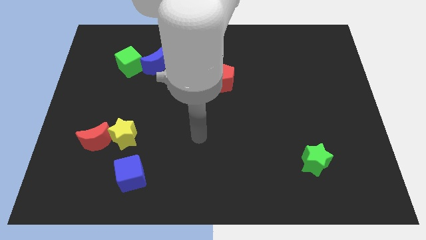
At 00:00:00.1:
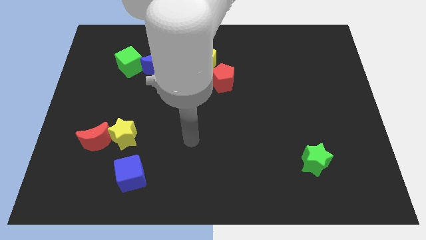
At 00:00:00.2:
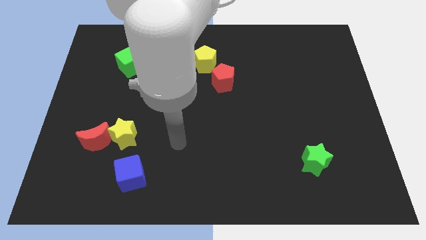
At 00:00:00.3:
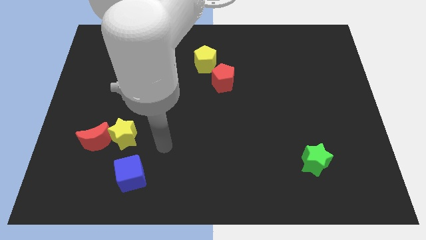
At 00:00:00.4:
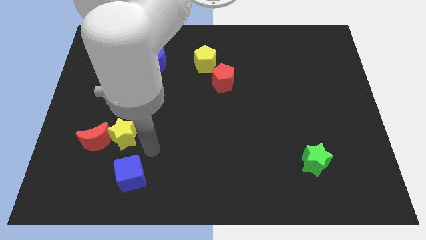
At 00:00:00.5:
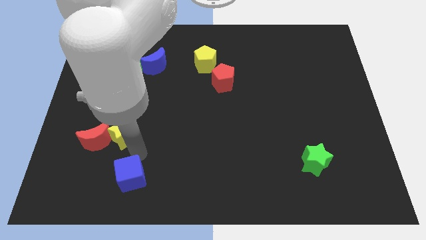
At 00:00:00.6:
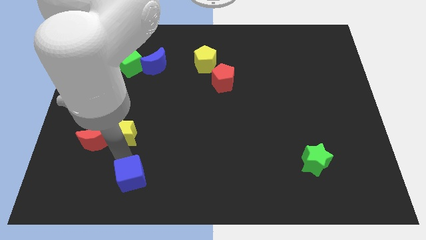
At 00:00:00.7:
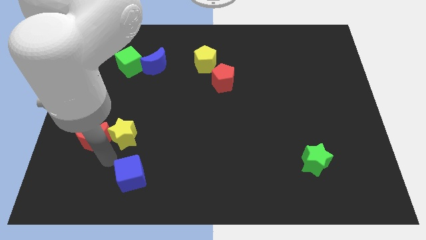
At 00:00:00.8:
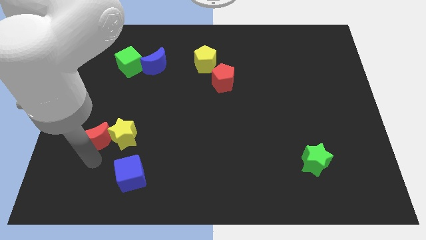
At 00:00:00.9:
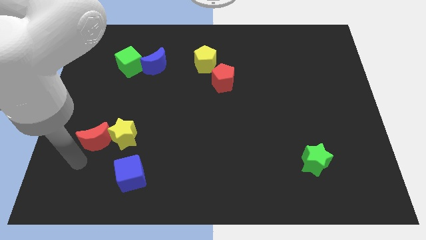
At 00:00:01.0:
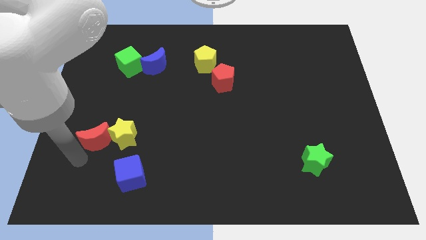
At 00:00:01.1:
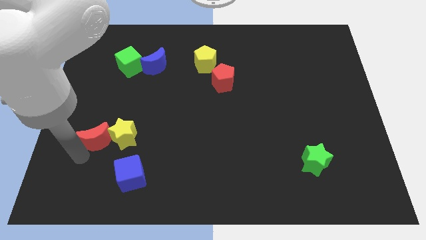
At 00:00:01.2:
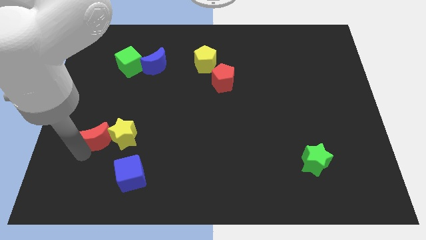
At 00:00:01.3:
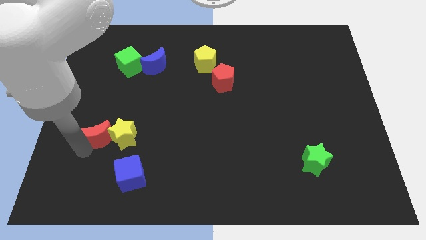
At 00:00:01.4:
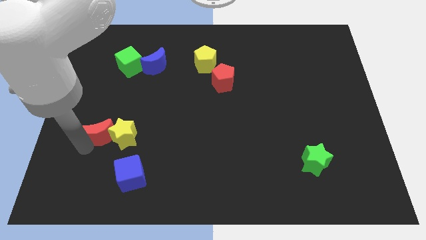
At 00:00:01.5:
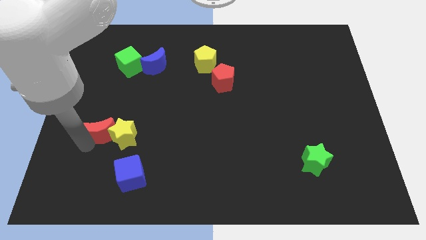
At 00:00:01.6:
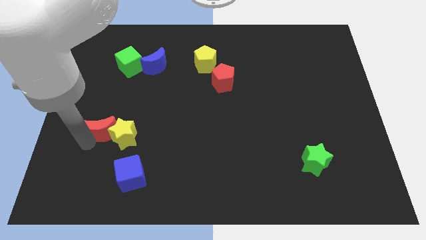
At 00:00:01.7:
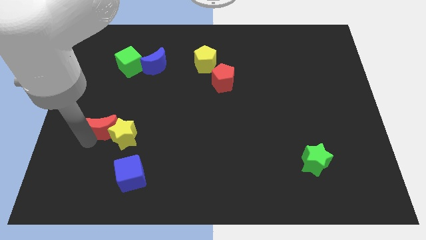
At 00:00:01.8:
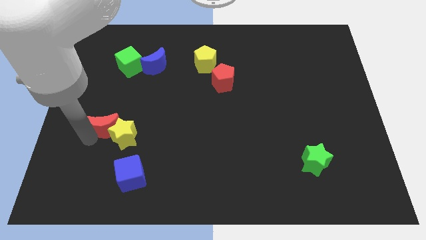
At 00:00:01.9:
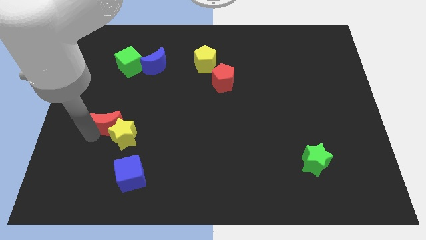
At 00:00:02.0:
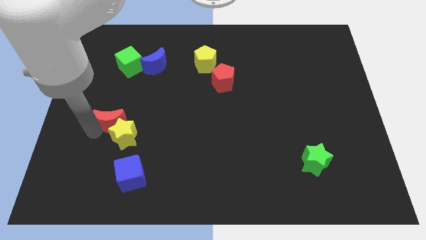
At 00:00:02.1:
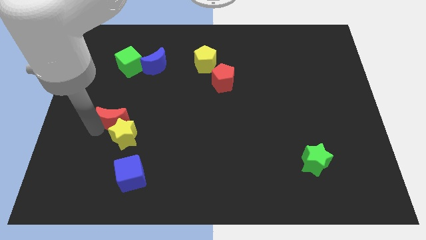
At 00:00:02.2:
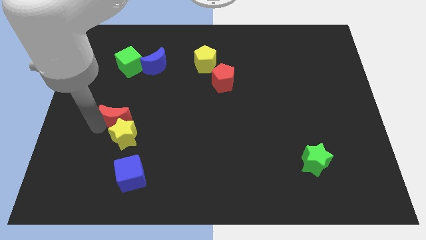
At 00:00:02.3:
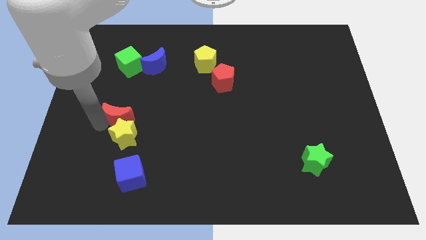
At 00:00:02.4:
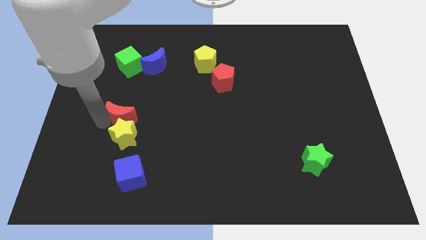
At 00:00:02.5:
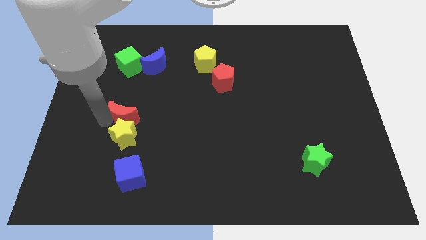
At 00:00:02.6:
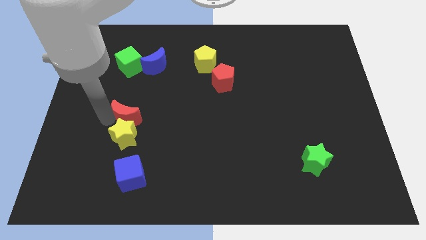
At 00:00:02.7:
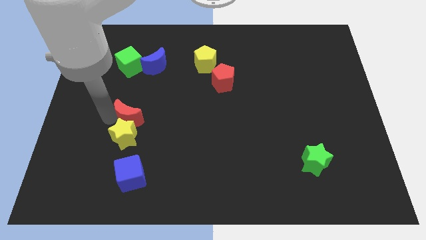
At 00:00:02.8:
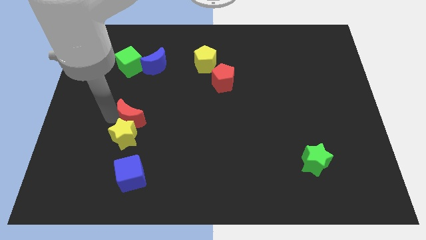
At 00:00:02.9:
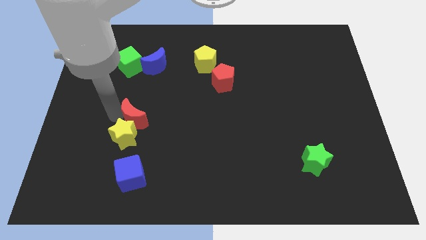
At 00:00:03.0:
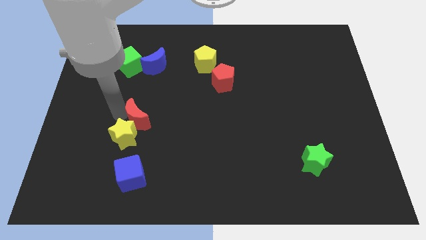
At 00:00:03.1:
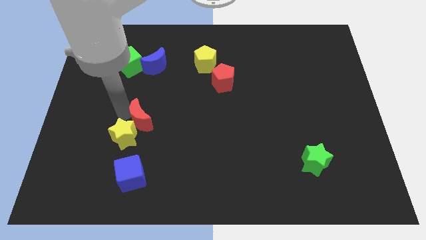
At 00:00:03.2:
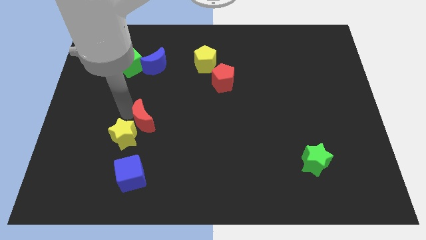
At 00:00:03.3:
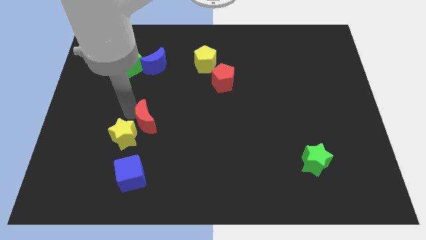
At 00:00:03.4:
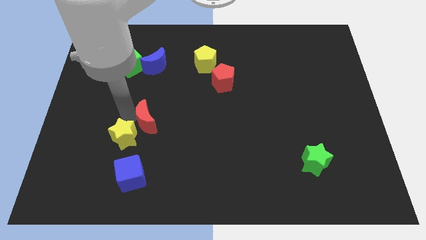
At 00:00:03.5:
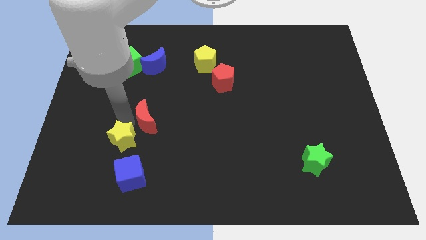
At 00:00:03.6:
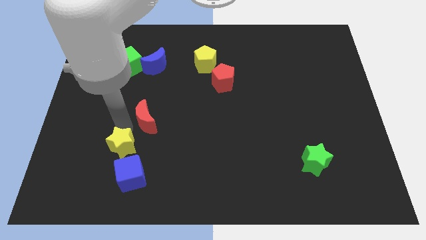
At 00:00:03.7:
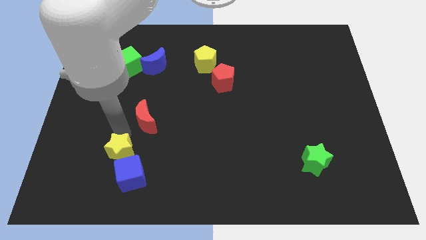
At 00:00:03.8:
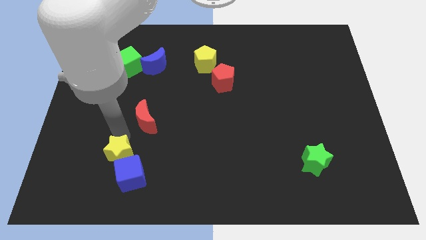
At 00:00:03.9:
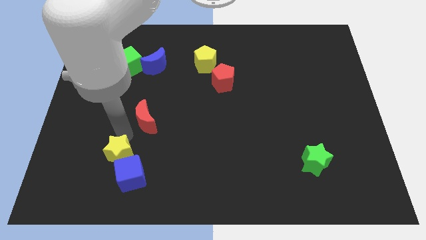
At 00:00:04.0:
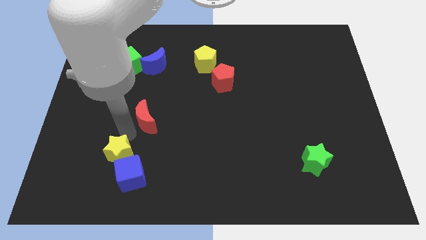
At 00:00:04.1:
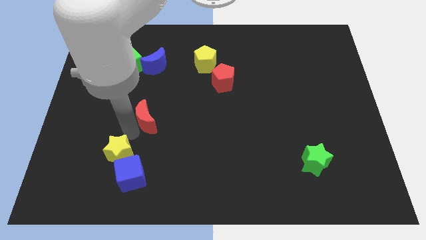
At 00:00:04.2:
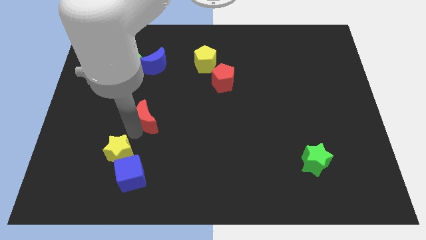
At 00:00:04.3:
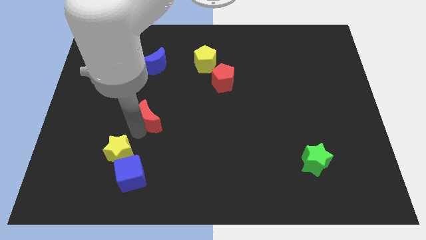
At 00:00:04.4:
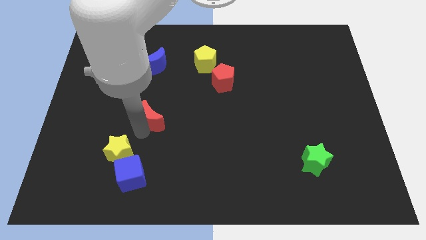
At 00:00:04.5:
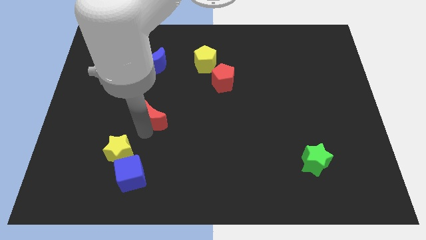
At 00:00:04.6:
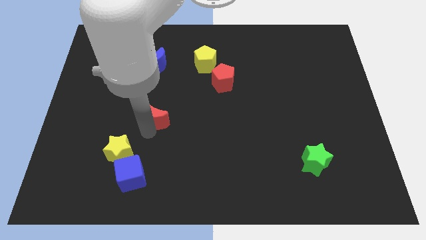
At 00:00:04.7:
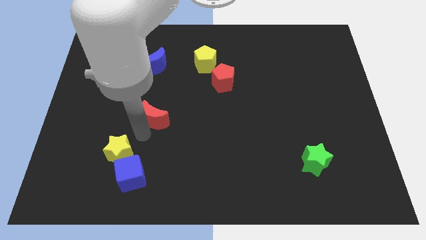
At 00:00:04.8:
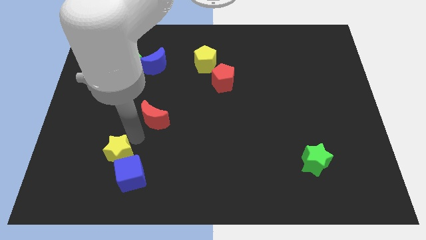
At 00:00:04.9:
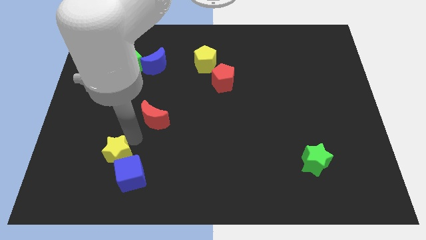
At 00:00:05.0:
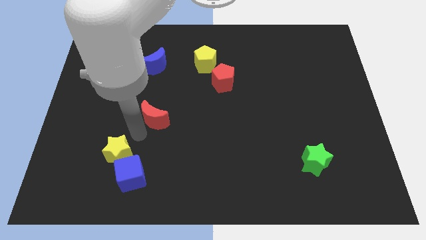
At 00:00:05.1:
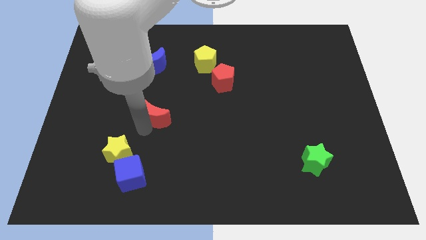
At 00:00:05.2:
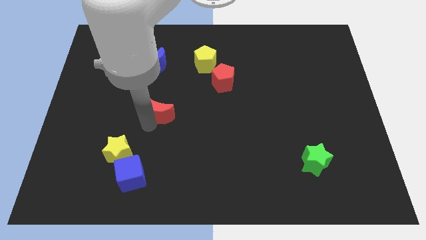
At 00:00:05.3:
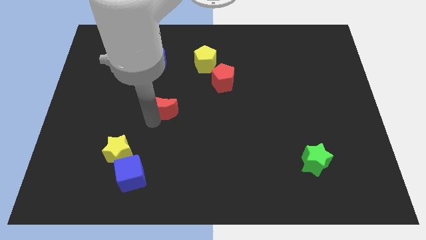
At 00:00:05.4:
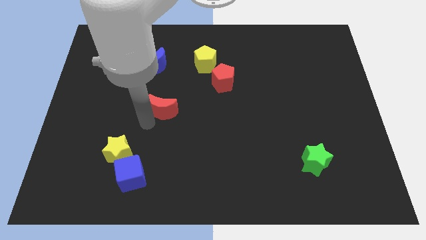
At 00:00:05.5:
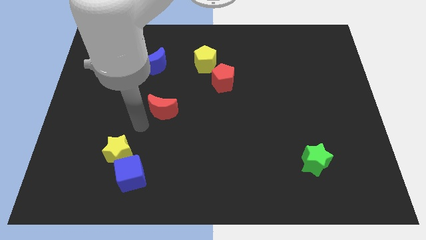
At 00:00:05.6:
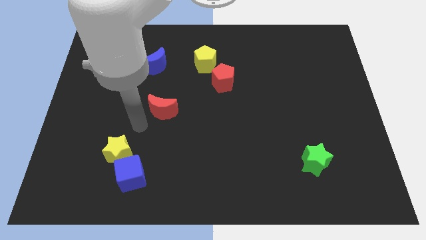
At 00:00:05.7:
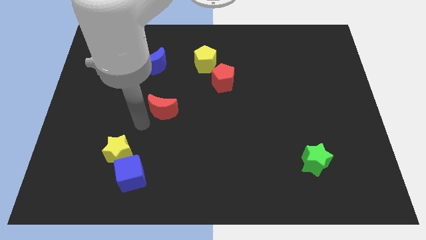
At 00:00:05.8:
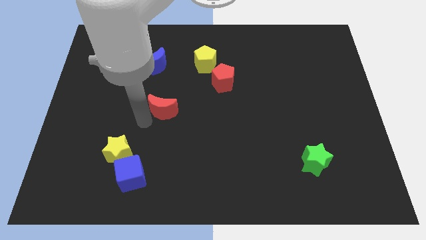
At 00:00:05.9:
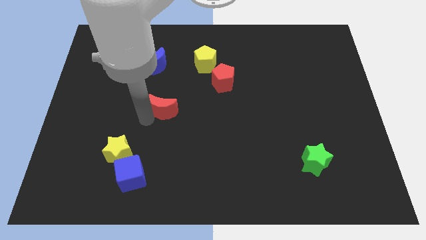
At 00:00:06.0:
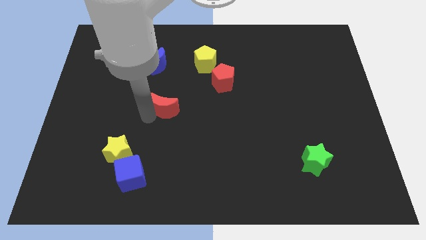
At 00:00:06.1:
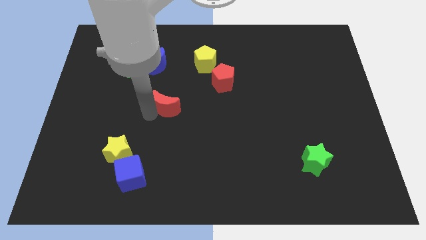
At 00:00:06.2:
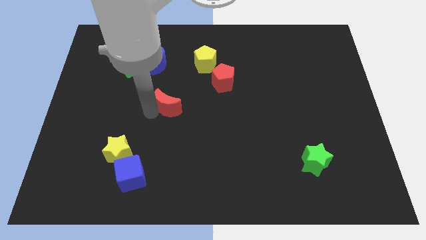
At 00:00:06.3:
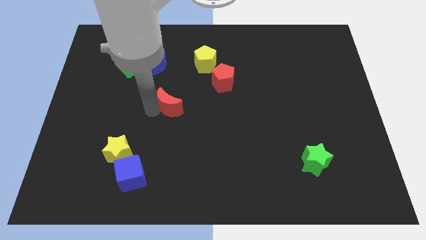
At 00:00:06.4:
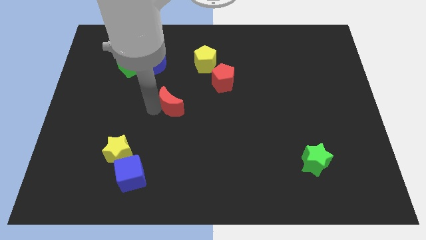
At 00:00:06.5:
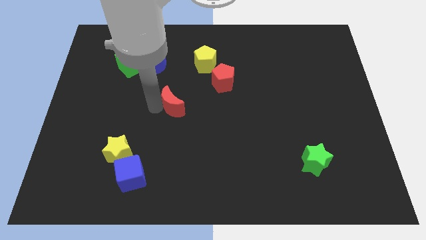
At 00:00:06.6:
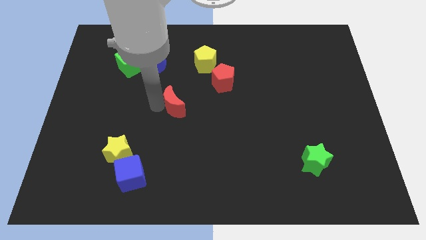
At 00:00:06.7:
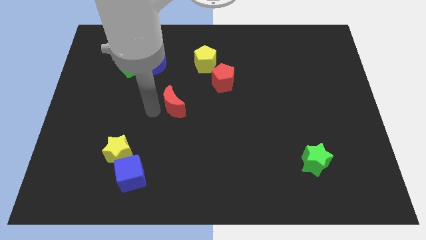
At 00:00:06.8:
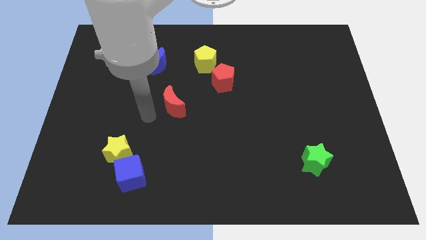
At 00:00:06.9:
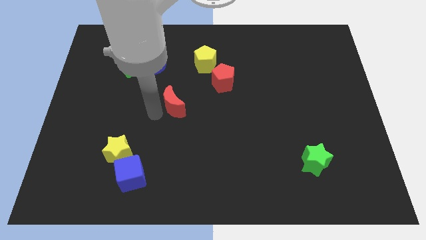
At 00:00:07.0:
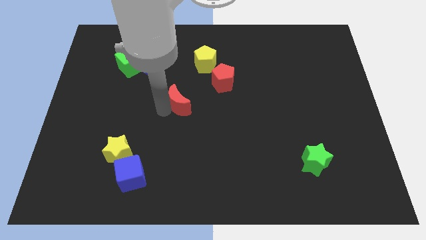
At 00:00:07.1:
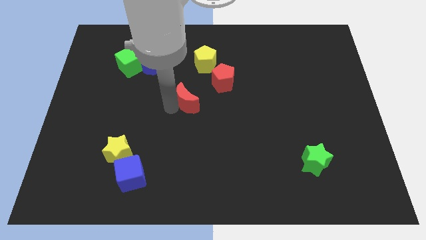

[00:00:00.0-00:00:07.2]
move the red moon below the yellow pentagon

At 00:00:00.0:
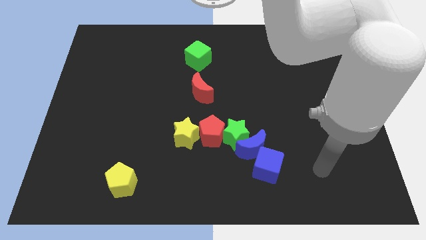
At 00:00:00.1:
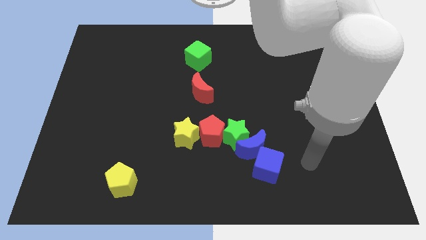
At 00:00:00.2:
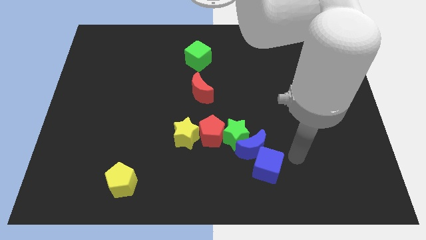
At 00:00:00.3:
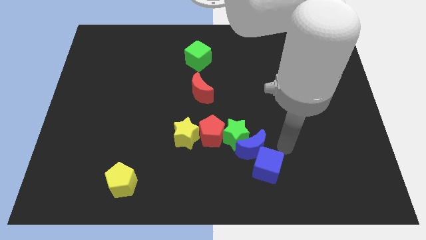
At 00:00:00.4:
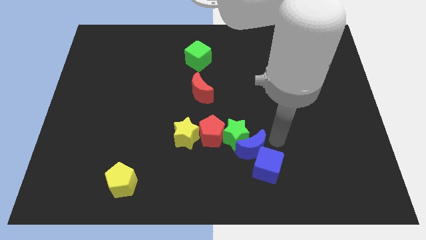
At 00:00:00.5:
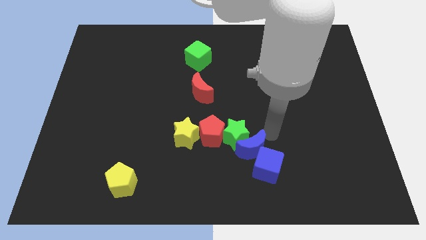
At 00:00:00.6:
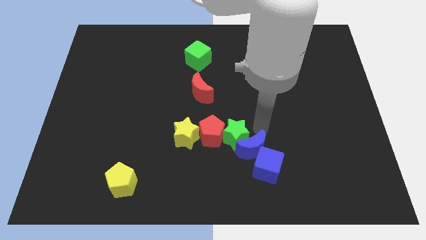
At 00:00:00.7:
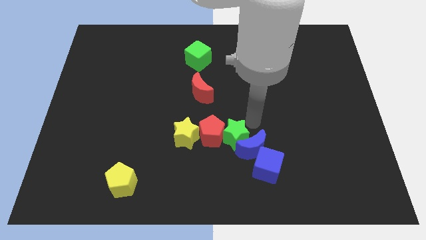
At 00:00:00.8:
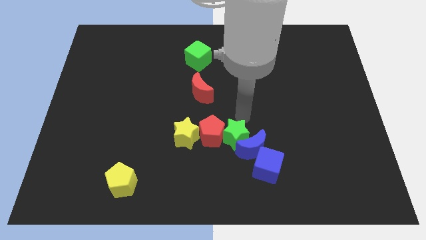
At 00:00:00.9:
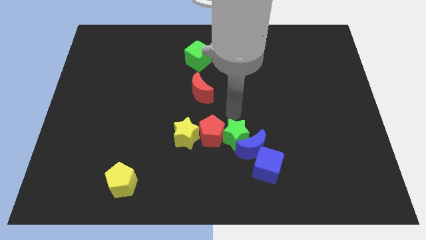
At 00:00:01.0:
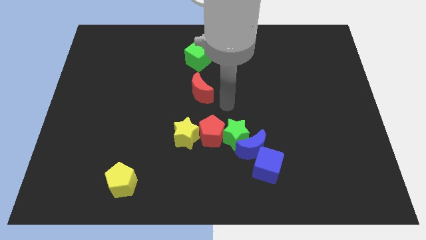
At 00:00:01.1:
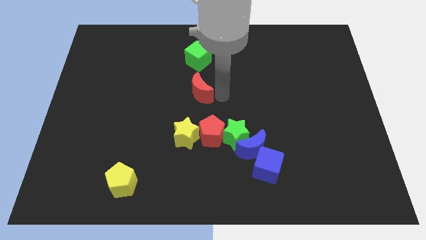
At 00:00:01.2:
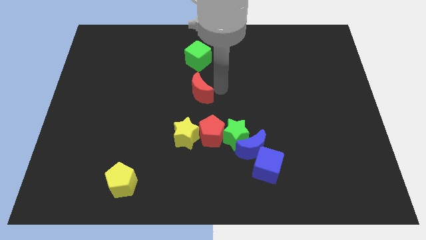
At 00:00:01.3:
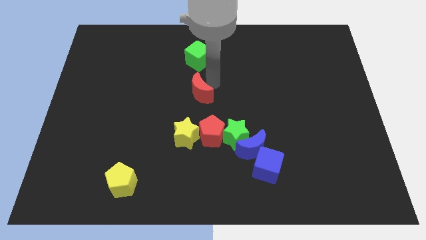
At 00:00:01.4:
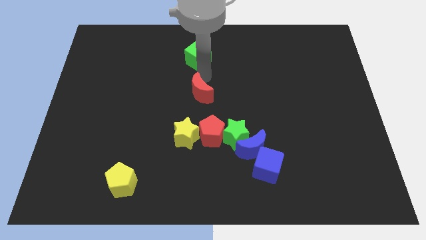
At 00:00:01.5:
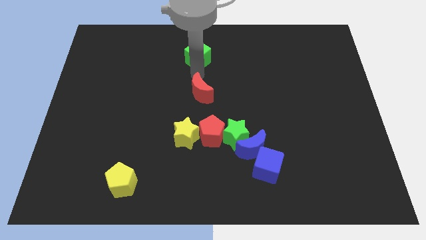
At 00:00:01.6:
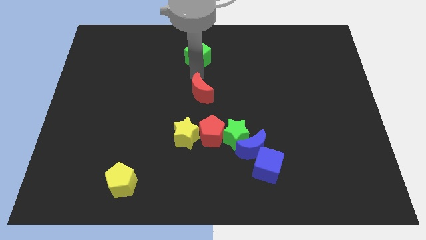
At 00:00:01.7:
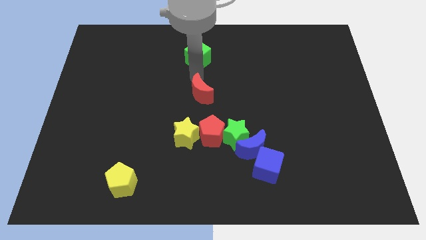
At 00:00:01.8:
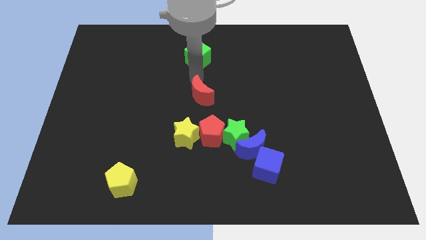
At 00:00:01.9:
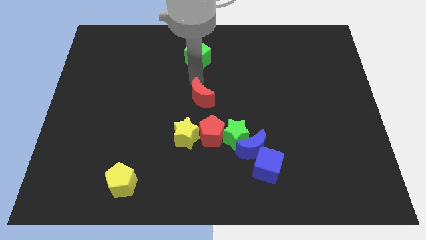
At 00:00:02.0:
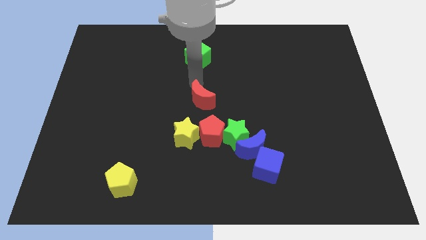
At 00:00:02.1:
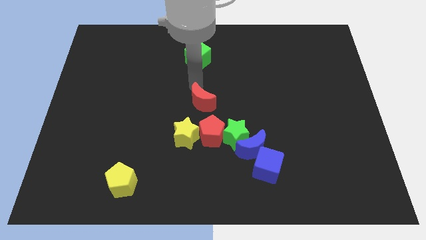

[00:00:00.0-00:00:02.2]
put the red moon to the top right of the yellow star
